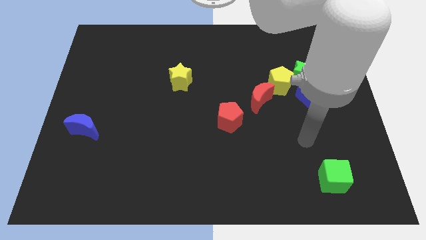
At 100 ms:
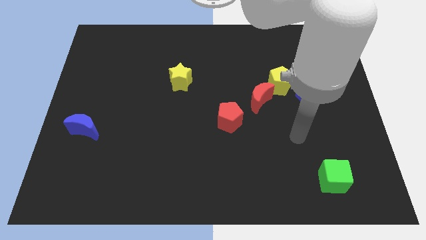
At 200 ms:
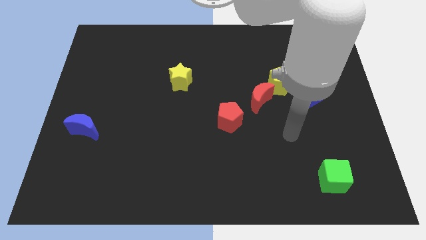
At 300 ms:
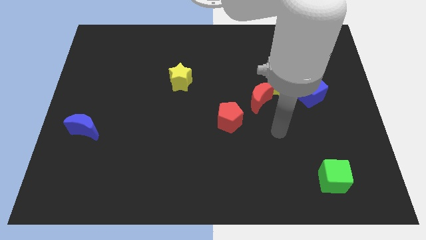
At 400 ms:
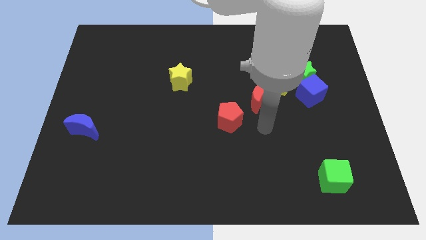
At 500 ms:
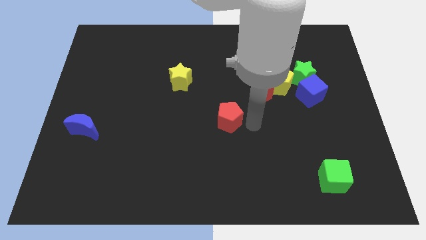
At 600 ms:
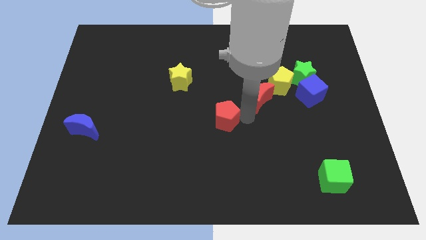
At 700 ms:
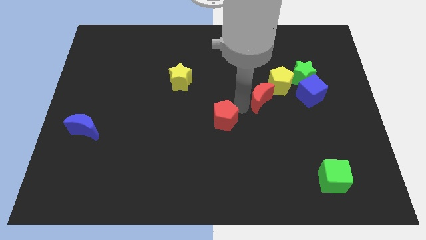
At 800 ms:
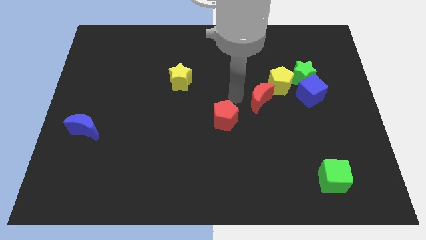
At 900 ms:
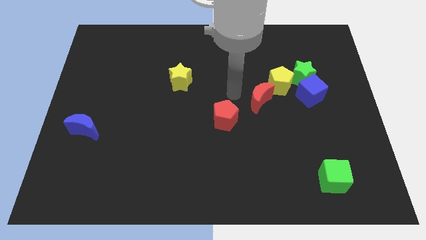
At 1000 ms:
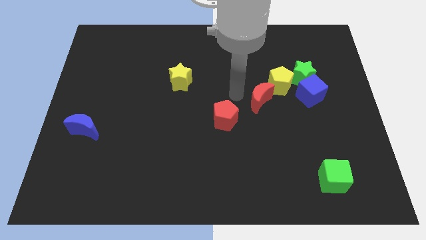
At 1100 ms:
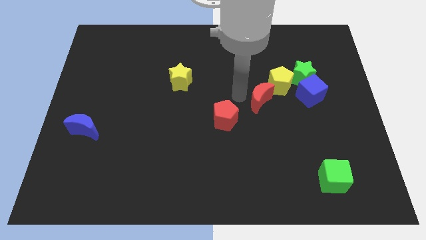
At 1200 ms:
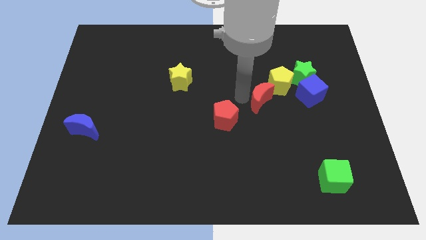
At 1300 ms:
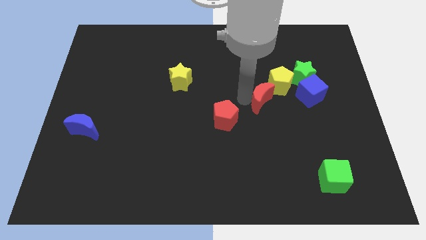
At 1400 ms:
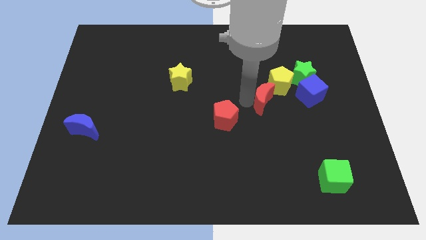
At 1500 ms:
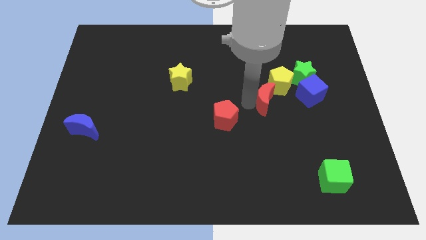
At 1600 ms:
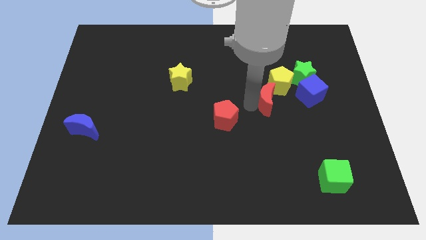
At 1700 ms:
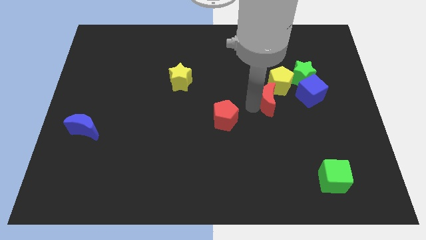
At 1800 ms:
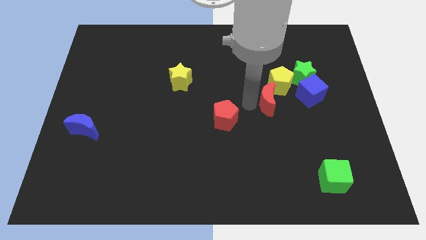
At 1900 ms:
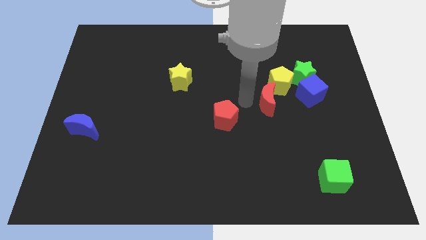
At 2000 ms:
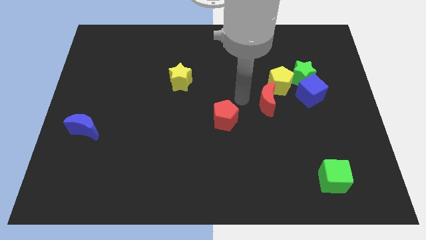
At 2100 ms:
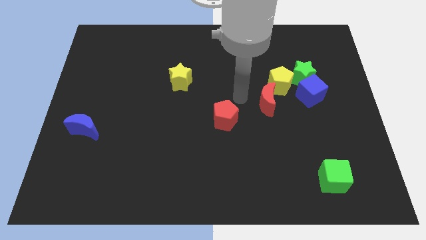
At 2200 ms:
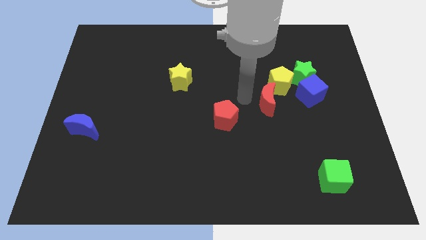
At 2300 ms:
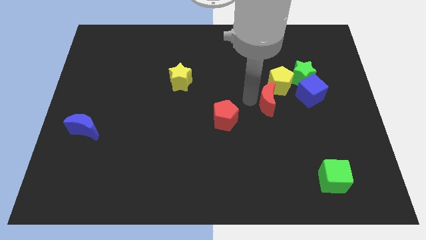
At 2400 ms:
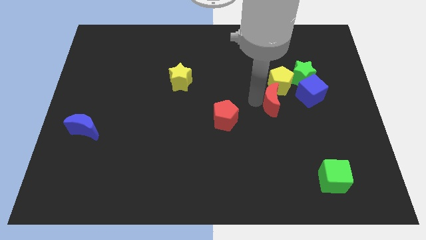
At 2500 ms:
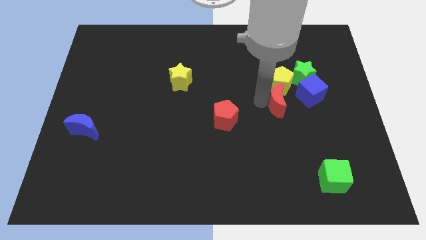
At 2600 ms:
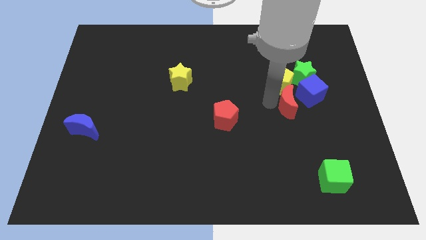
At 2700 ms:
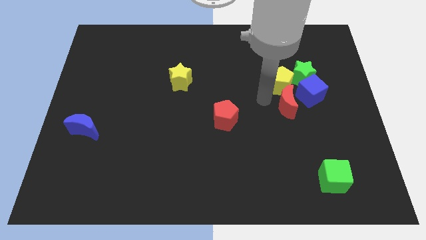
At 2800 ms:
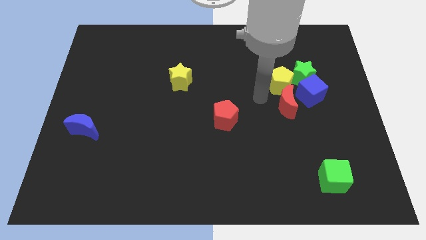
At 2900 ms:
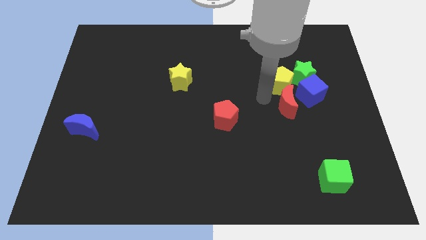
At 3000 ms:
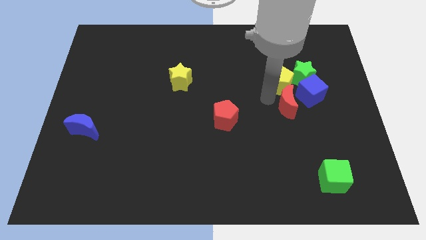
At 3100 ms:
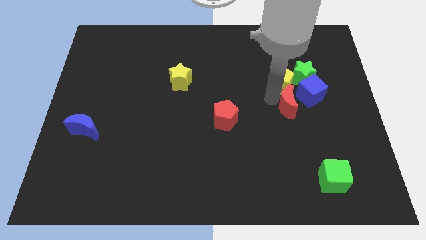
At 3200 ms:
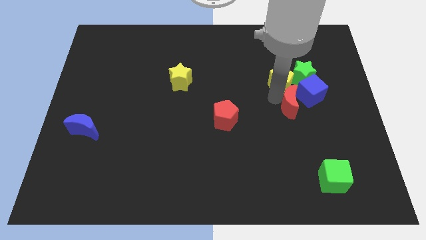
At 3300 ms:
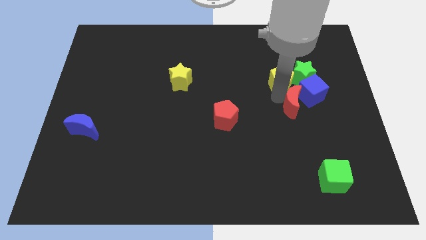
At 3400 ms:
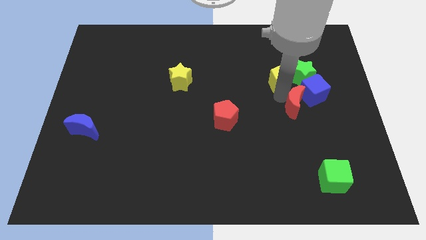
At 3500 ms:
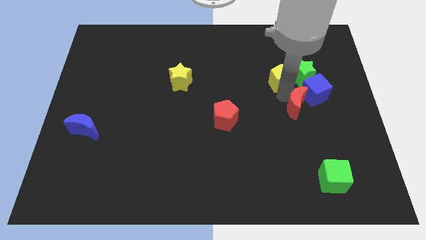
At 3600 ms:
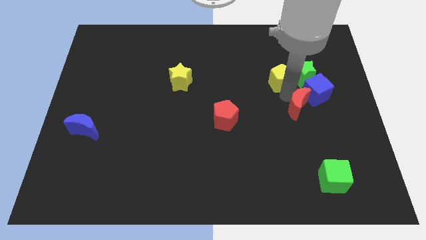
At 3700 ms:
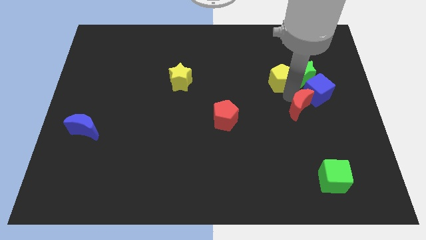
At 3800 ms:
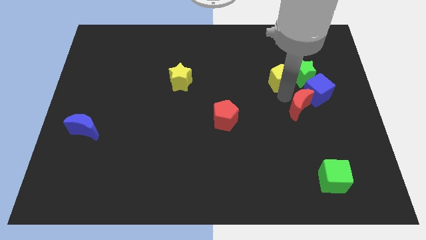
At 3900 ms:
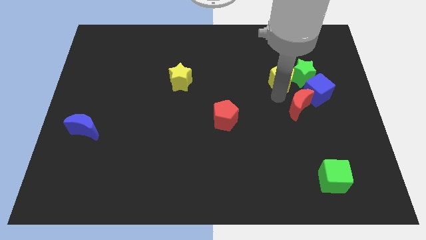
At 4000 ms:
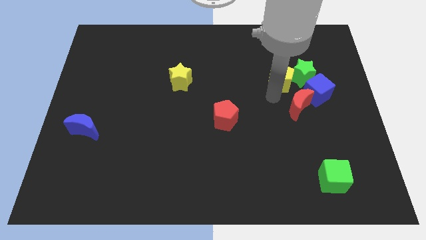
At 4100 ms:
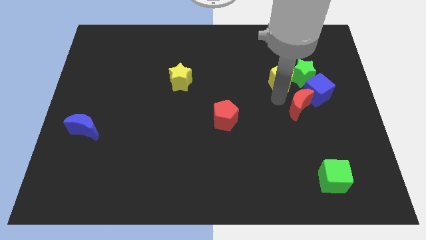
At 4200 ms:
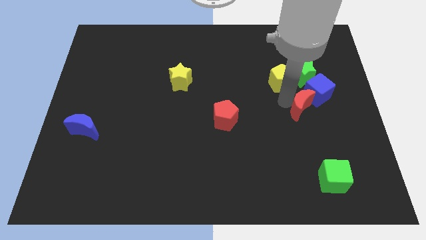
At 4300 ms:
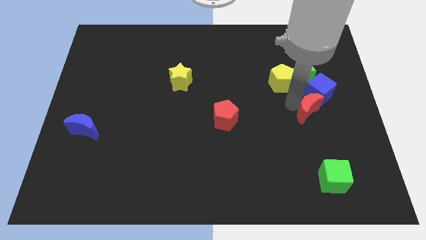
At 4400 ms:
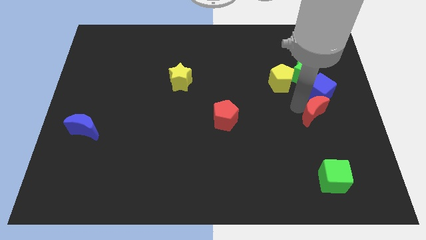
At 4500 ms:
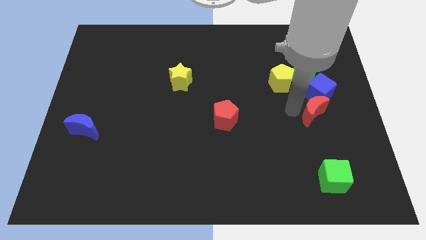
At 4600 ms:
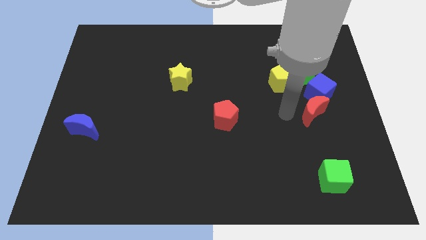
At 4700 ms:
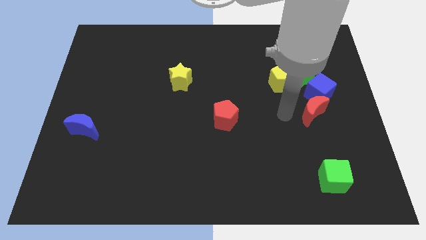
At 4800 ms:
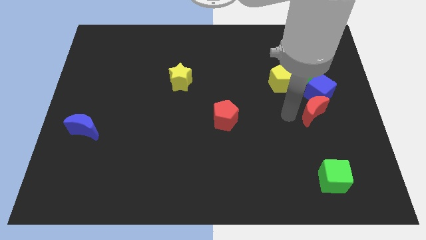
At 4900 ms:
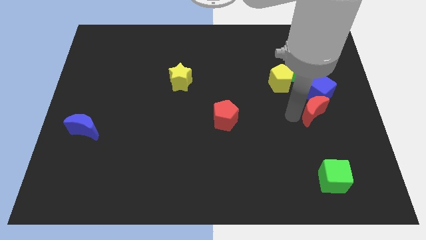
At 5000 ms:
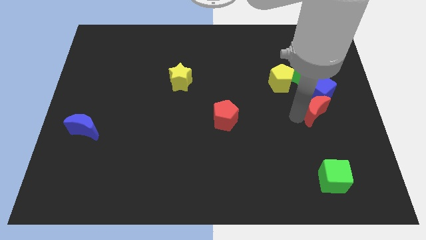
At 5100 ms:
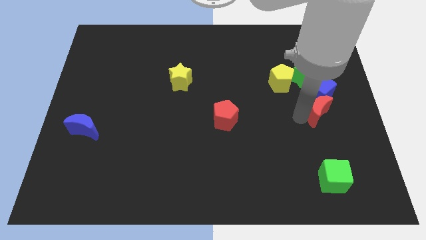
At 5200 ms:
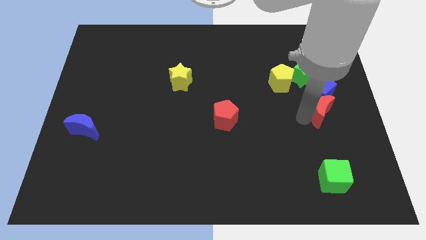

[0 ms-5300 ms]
move the red moon to the bottom right side of the blue cube

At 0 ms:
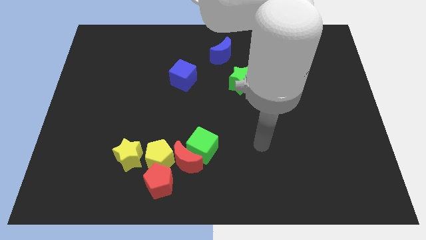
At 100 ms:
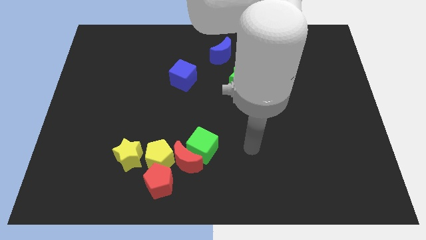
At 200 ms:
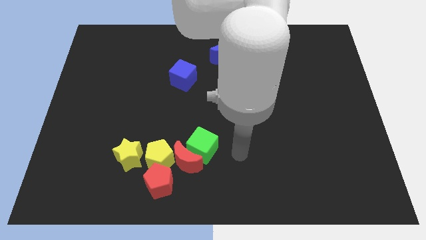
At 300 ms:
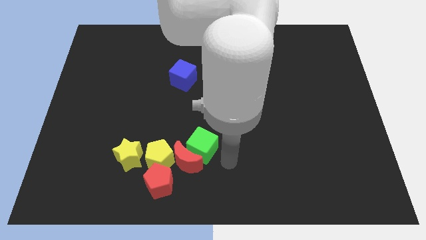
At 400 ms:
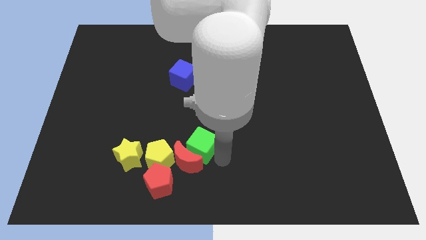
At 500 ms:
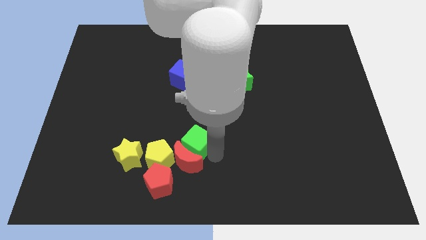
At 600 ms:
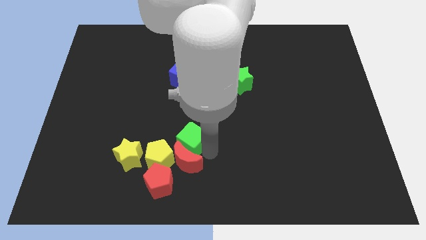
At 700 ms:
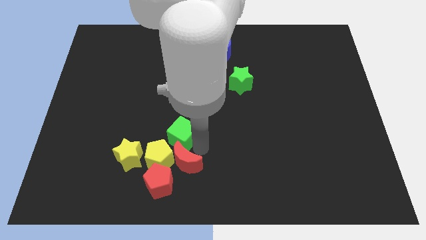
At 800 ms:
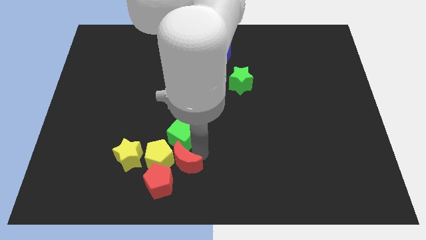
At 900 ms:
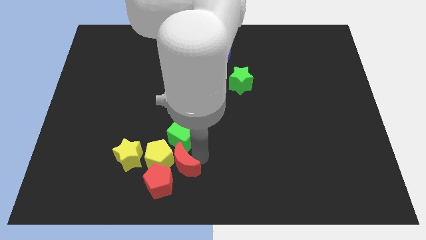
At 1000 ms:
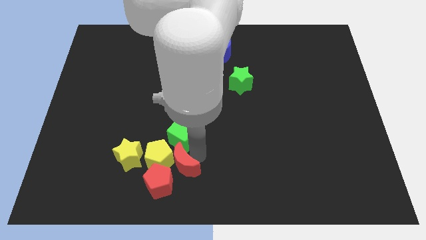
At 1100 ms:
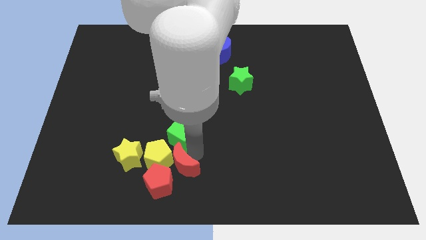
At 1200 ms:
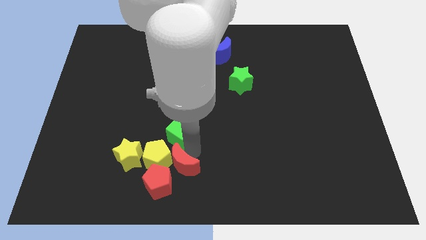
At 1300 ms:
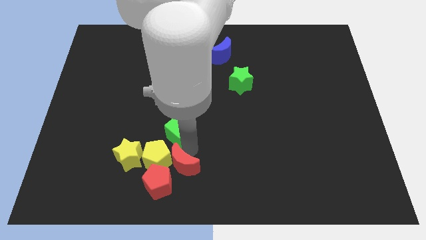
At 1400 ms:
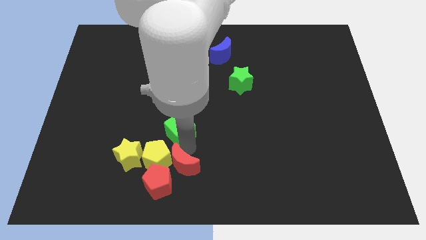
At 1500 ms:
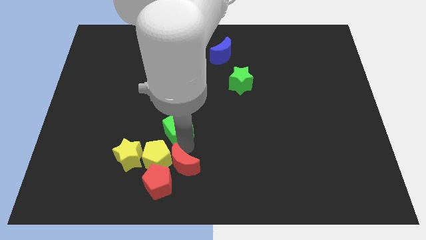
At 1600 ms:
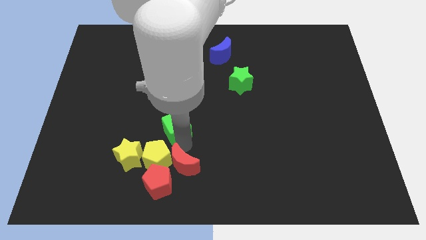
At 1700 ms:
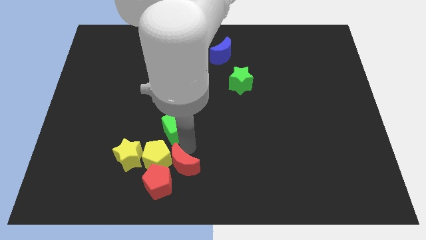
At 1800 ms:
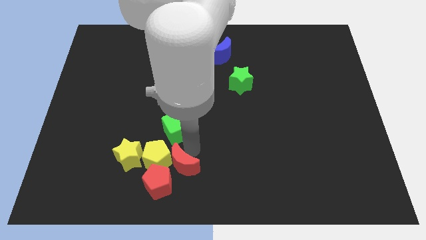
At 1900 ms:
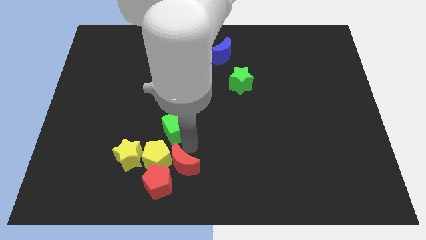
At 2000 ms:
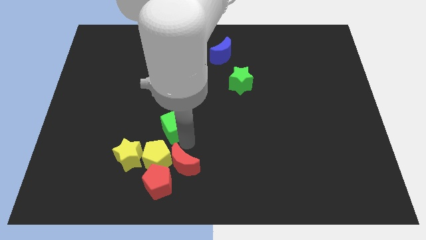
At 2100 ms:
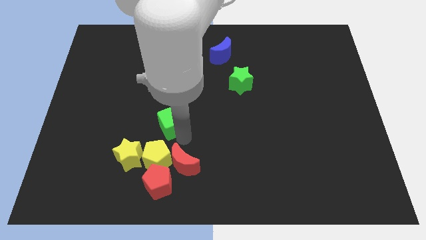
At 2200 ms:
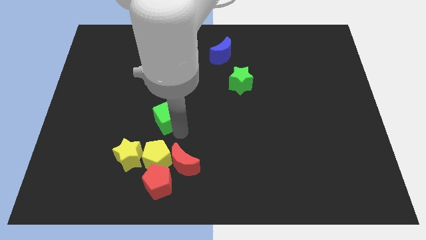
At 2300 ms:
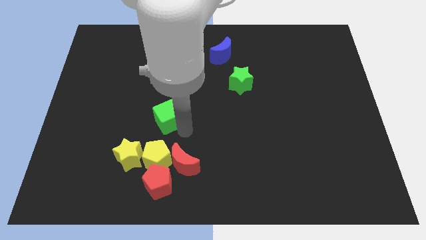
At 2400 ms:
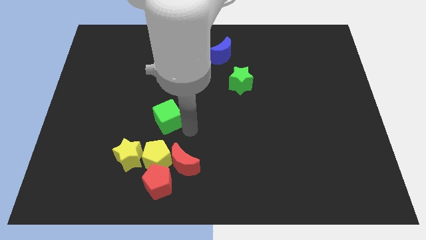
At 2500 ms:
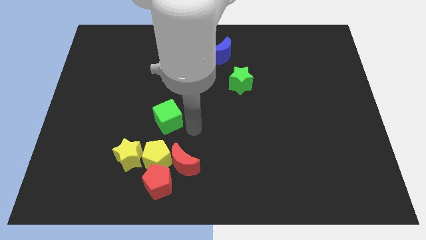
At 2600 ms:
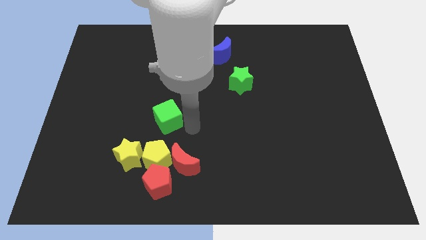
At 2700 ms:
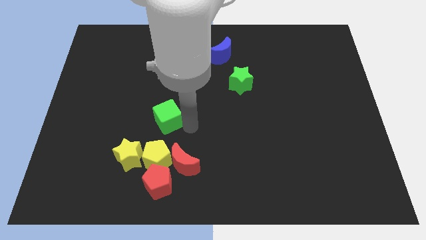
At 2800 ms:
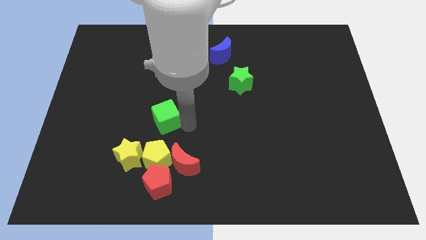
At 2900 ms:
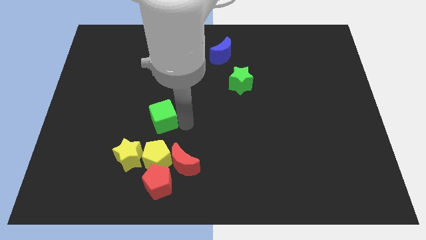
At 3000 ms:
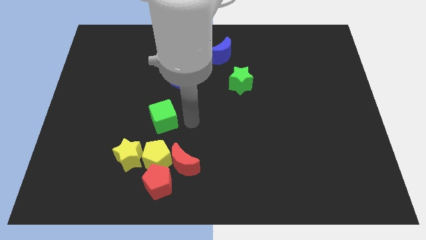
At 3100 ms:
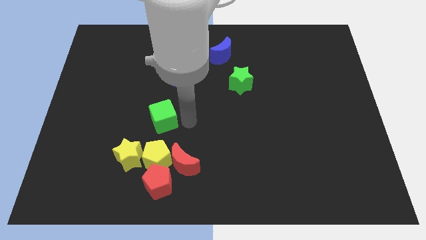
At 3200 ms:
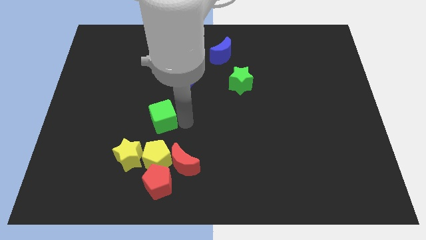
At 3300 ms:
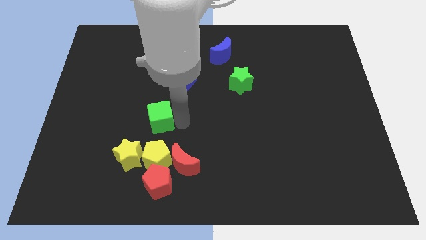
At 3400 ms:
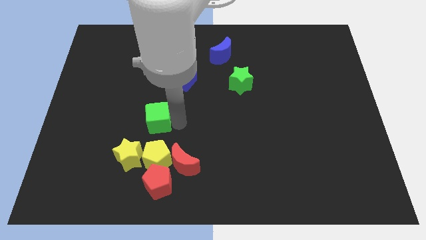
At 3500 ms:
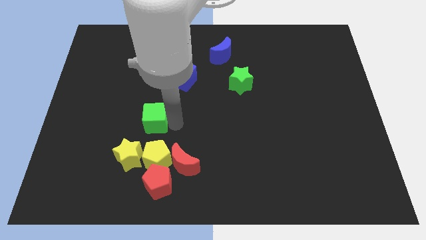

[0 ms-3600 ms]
slide the green cube to the top of the yellow star
